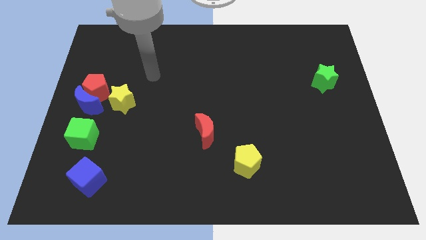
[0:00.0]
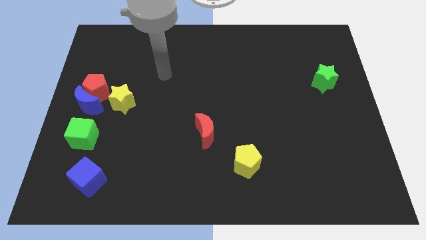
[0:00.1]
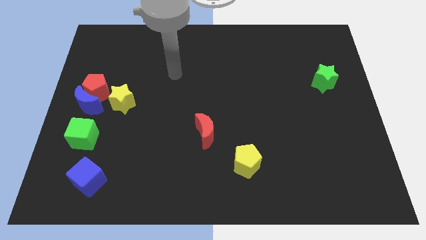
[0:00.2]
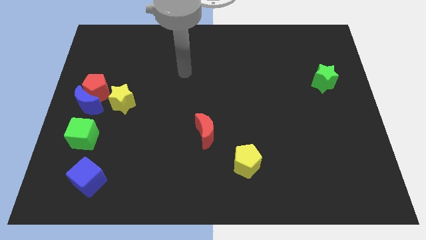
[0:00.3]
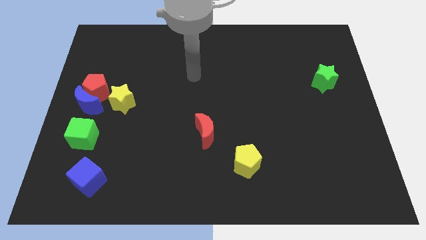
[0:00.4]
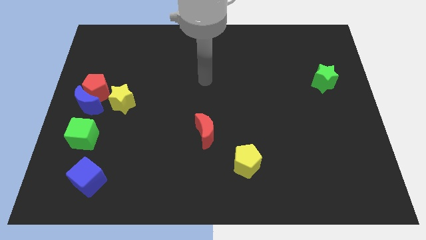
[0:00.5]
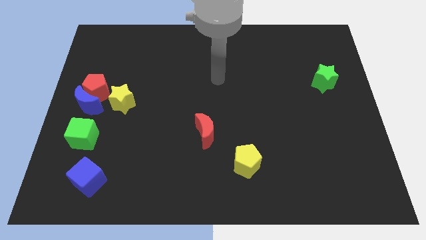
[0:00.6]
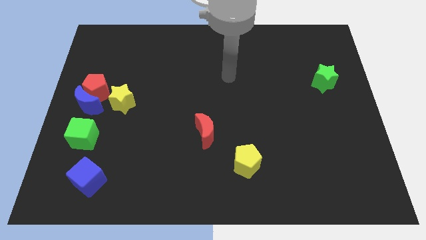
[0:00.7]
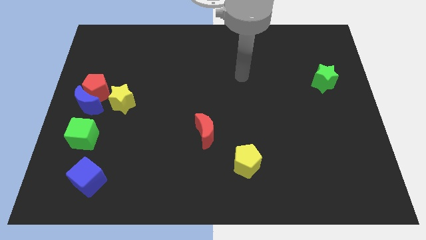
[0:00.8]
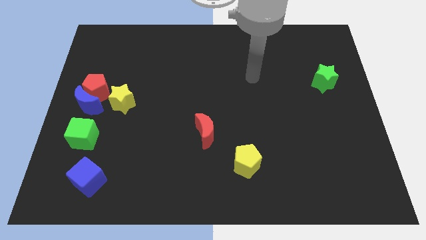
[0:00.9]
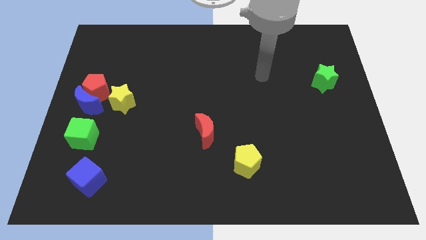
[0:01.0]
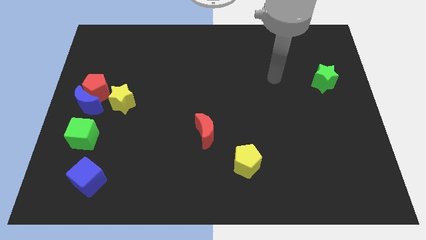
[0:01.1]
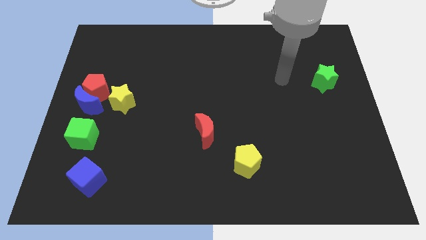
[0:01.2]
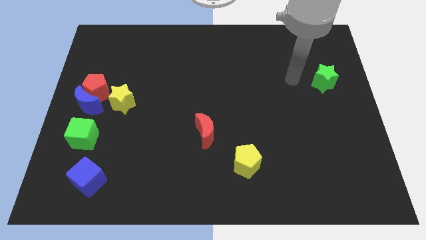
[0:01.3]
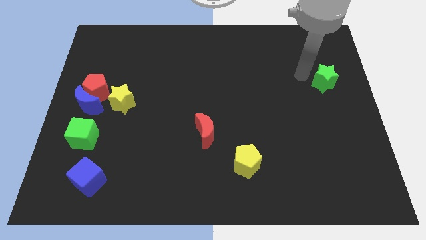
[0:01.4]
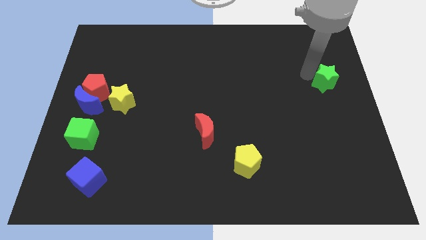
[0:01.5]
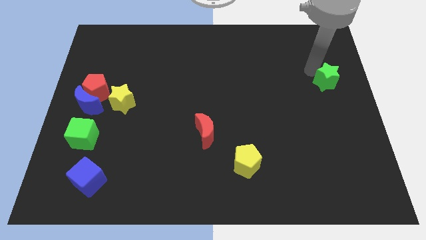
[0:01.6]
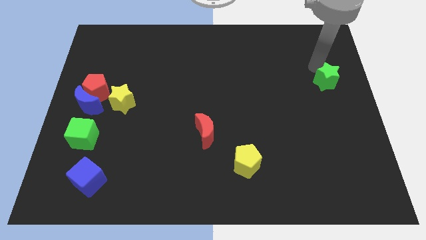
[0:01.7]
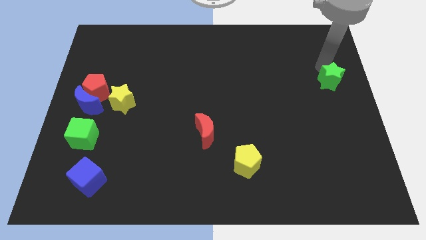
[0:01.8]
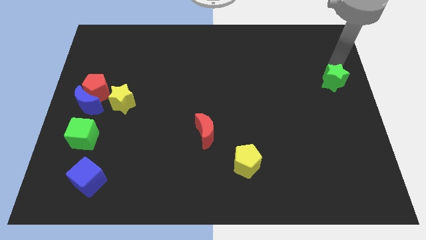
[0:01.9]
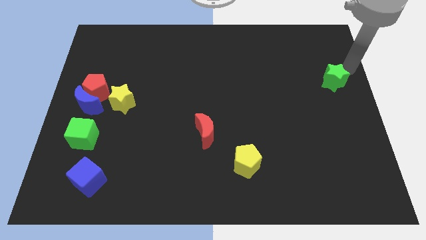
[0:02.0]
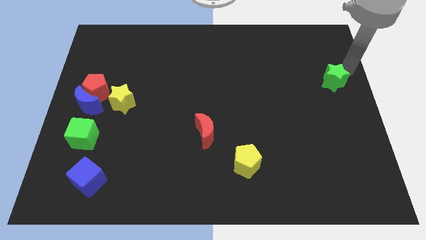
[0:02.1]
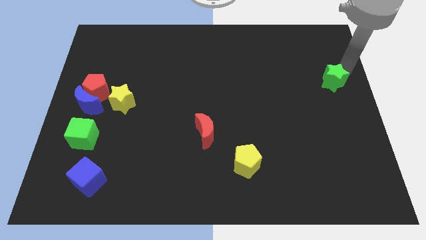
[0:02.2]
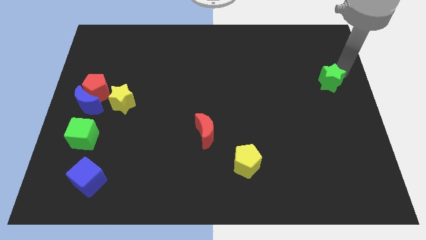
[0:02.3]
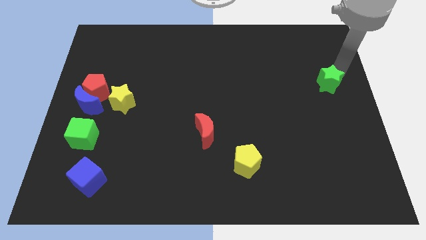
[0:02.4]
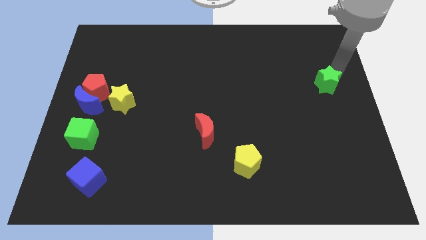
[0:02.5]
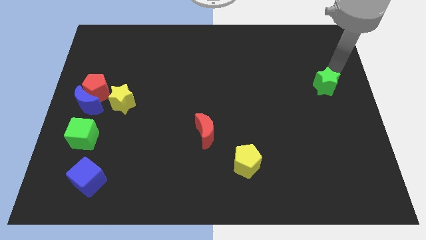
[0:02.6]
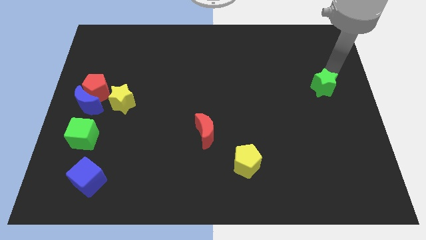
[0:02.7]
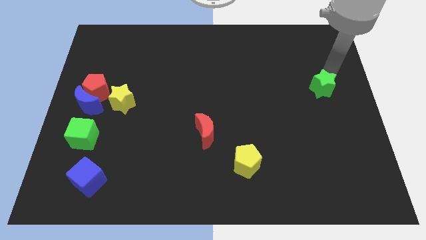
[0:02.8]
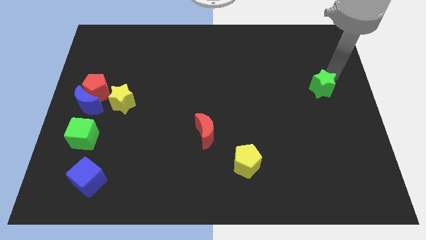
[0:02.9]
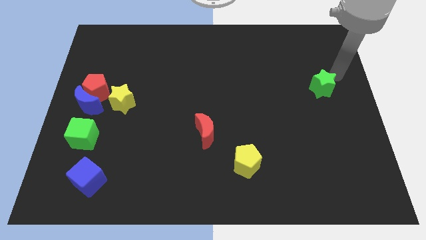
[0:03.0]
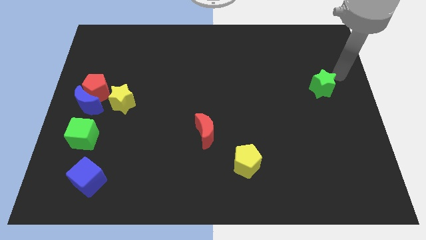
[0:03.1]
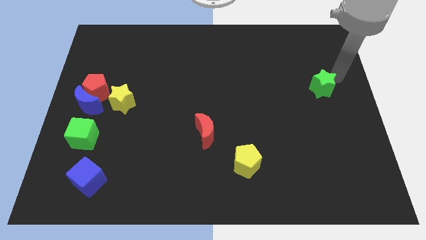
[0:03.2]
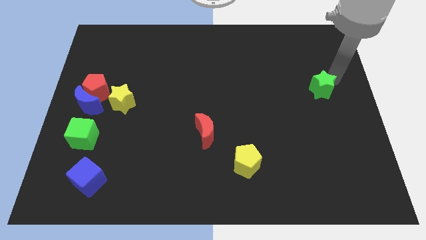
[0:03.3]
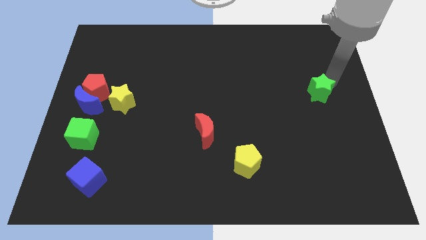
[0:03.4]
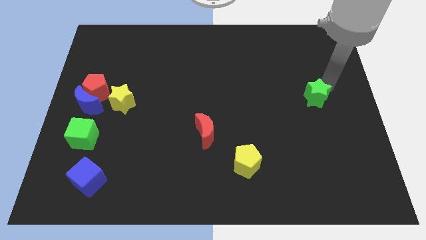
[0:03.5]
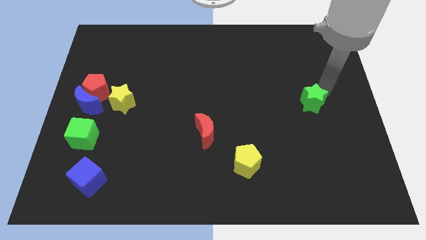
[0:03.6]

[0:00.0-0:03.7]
move the green star downwards and then to the left slightly

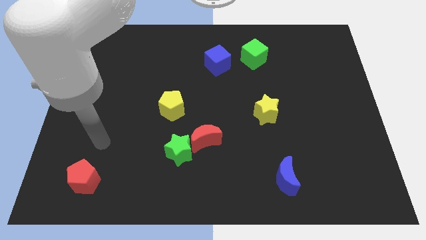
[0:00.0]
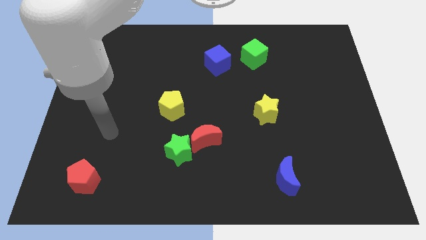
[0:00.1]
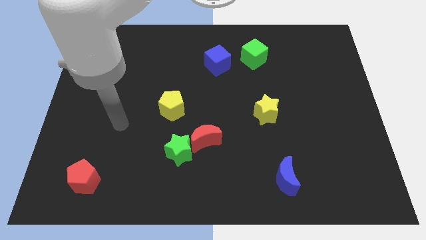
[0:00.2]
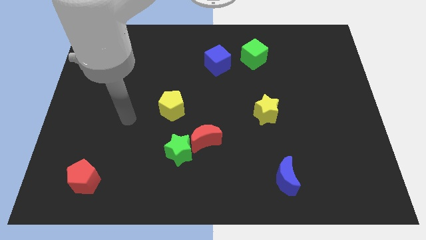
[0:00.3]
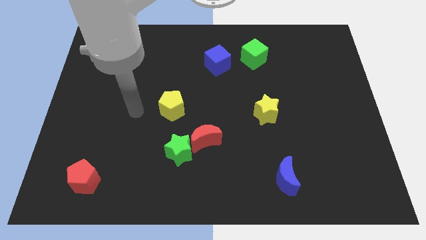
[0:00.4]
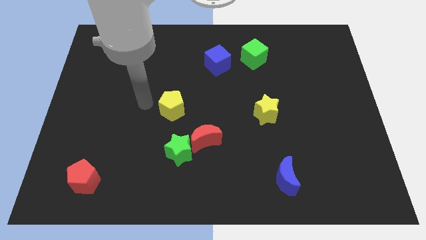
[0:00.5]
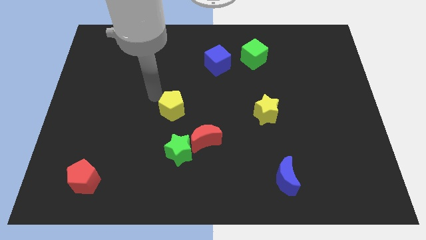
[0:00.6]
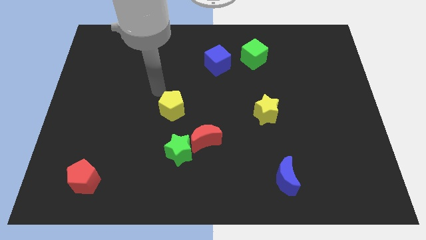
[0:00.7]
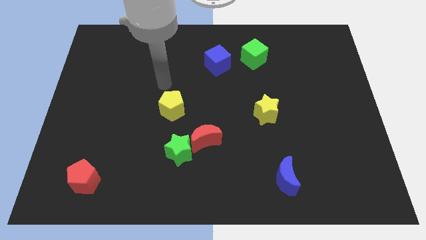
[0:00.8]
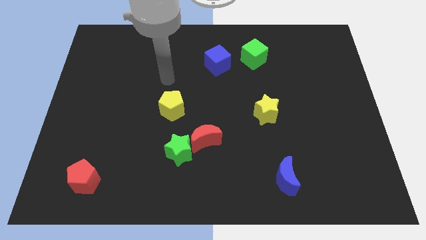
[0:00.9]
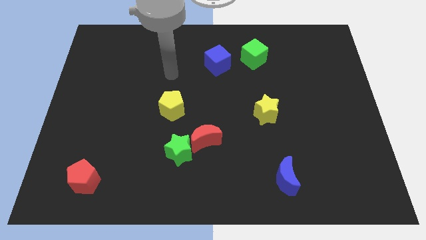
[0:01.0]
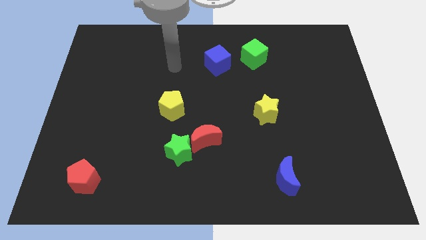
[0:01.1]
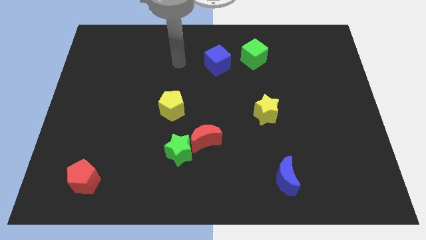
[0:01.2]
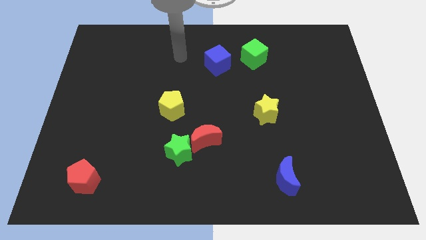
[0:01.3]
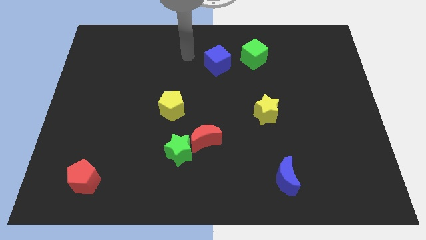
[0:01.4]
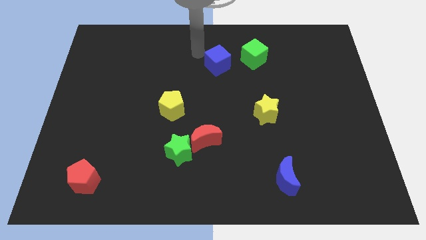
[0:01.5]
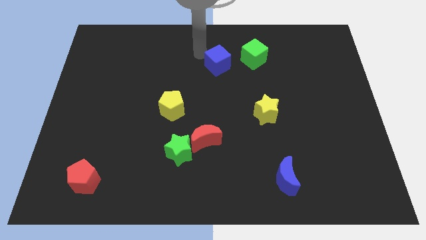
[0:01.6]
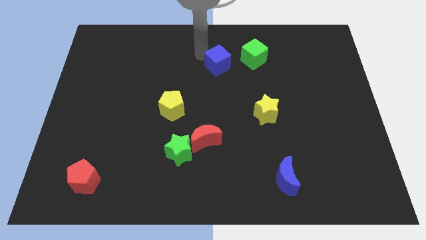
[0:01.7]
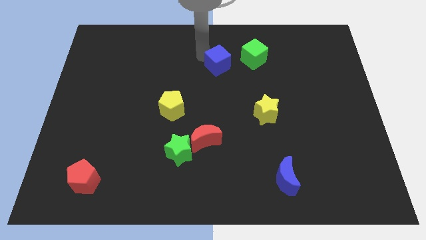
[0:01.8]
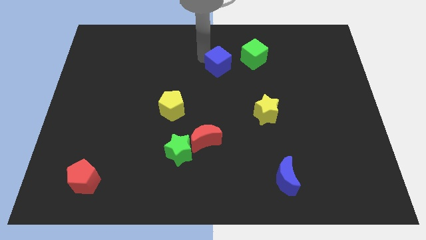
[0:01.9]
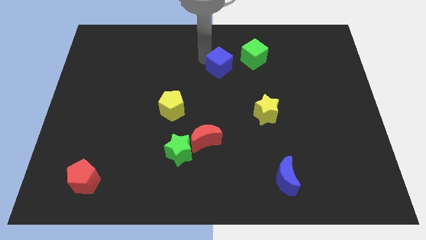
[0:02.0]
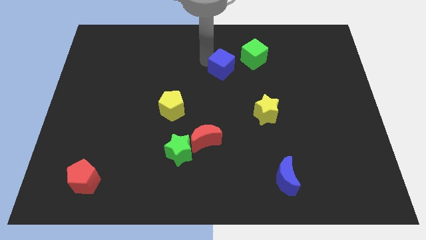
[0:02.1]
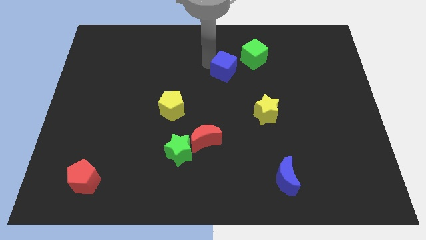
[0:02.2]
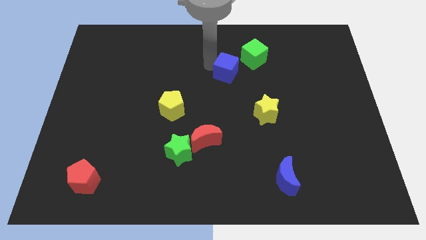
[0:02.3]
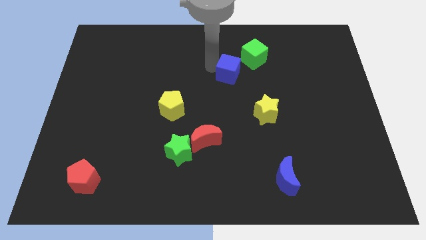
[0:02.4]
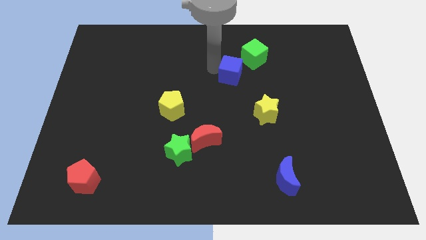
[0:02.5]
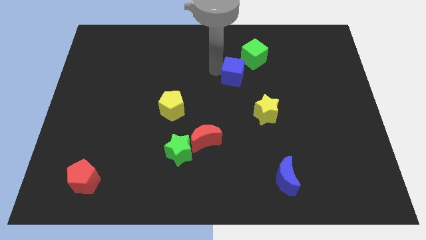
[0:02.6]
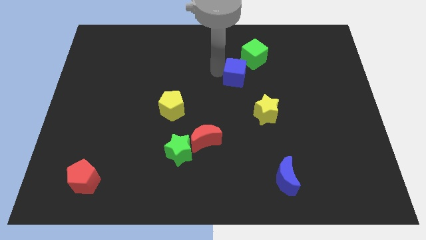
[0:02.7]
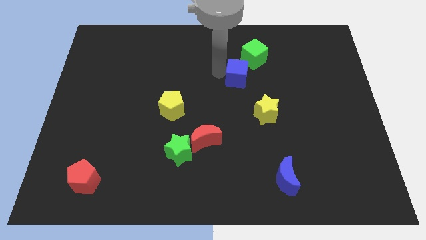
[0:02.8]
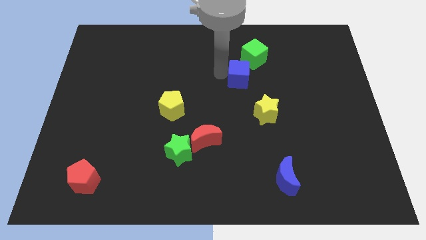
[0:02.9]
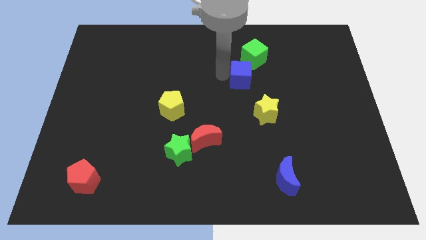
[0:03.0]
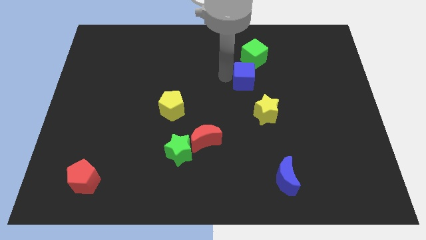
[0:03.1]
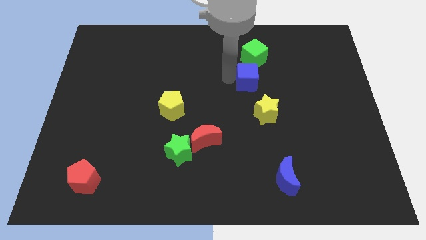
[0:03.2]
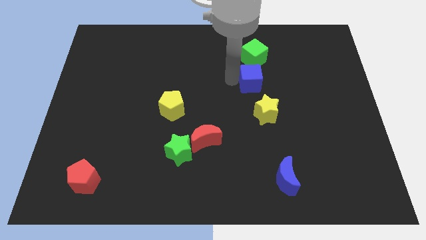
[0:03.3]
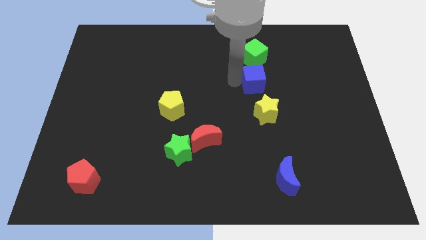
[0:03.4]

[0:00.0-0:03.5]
move the blue cube right a little

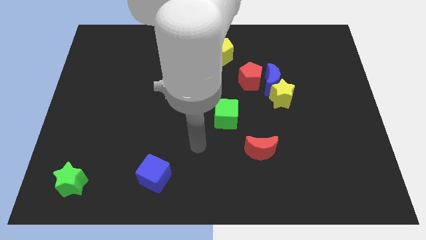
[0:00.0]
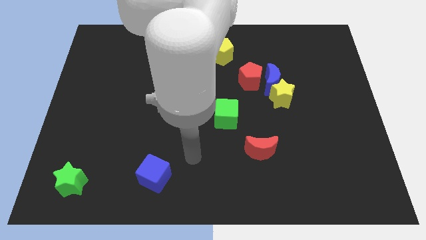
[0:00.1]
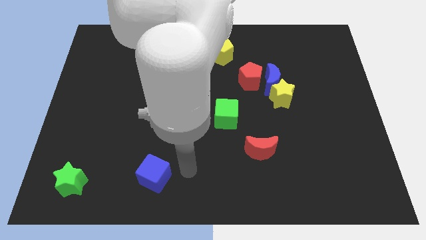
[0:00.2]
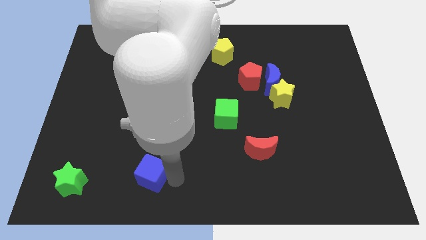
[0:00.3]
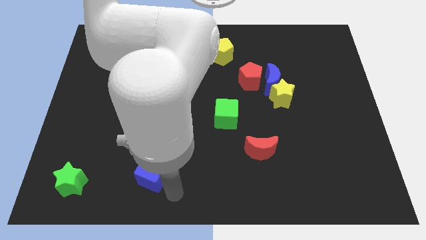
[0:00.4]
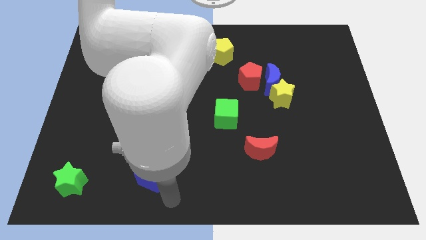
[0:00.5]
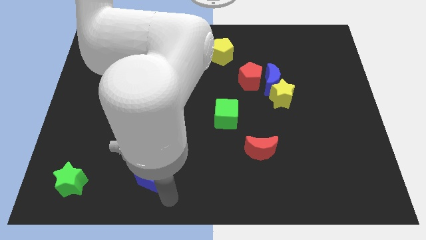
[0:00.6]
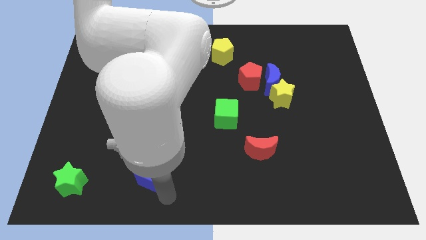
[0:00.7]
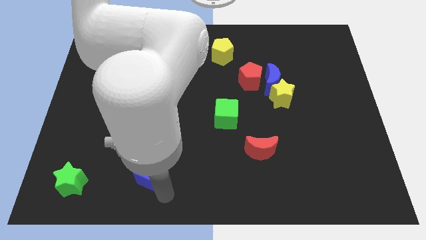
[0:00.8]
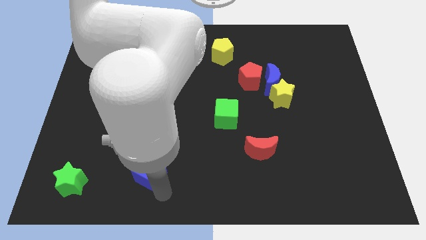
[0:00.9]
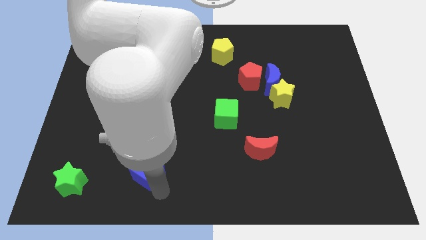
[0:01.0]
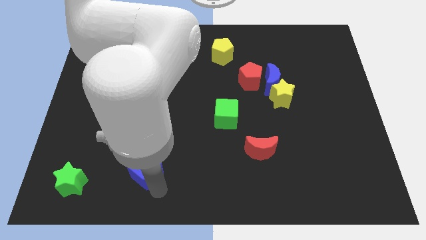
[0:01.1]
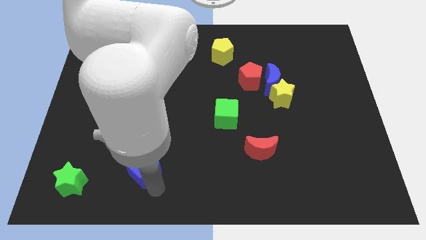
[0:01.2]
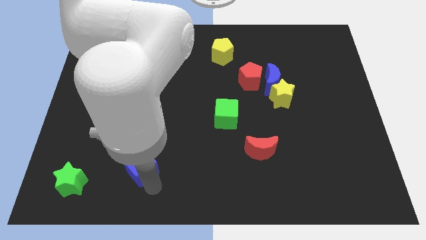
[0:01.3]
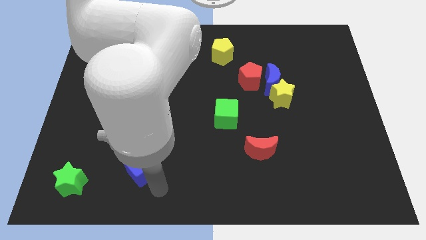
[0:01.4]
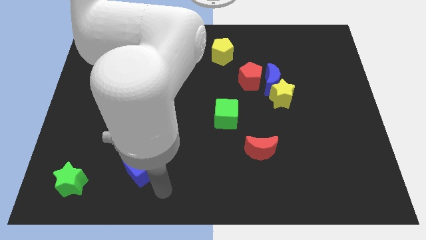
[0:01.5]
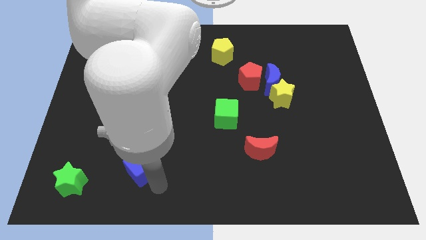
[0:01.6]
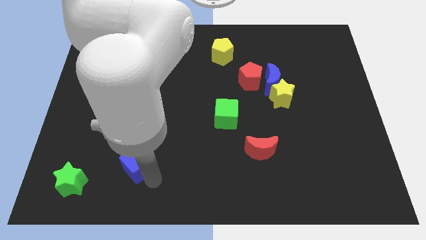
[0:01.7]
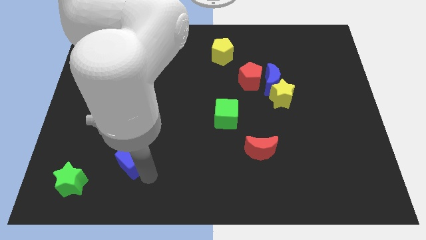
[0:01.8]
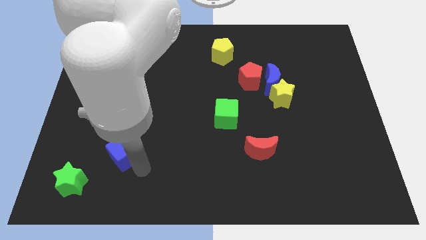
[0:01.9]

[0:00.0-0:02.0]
push the blue cube slightly diagonally up and left
